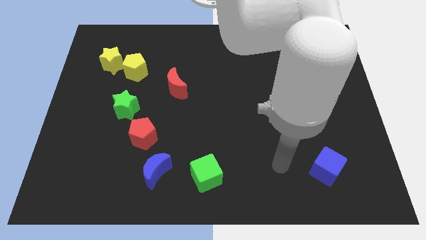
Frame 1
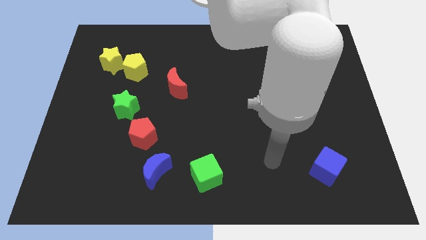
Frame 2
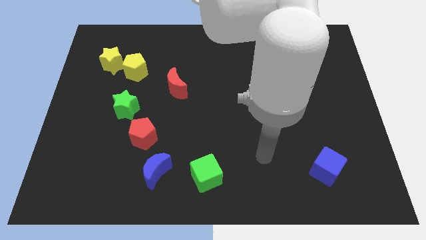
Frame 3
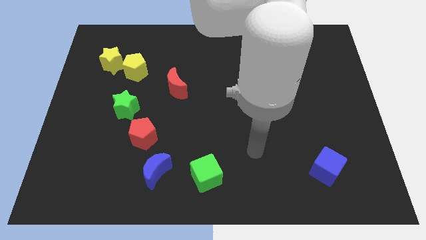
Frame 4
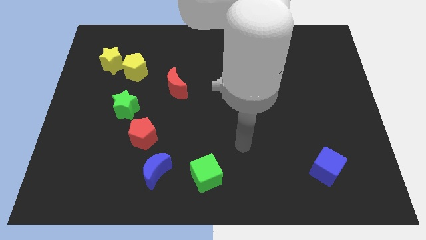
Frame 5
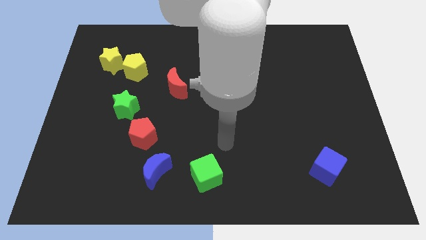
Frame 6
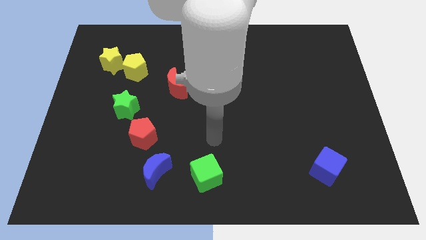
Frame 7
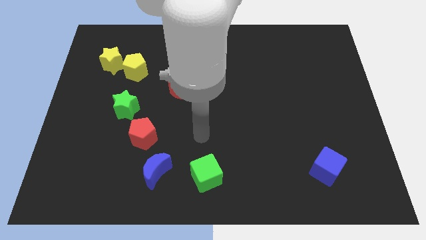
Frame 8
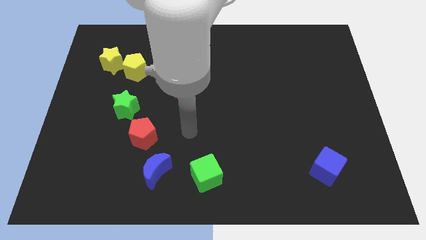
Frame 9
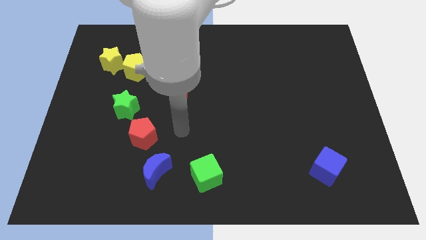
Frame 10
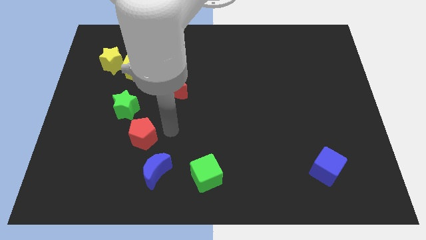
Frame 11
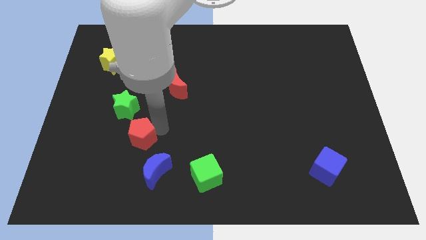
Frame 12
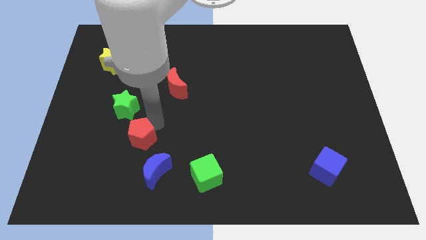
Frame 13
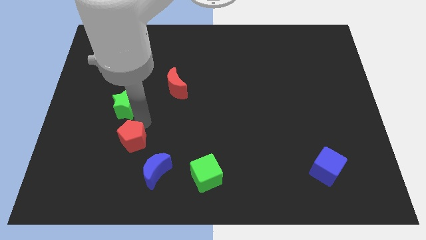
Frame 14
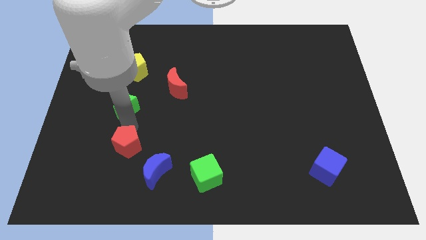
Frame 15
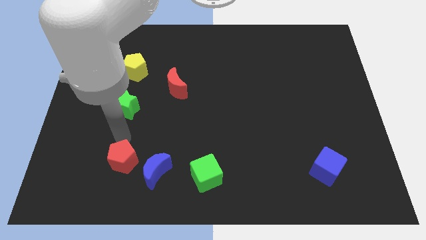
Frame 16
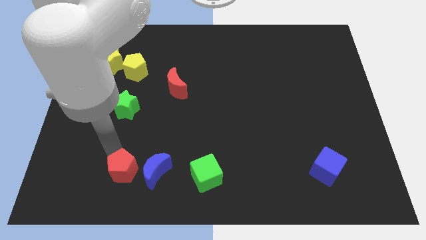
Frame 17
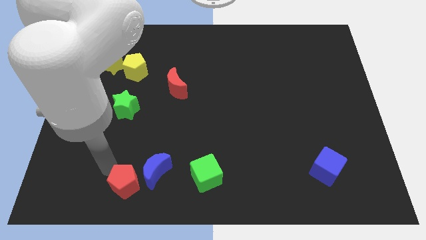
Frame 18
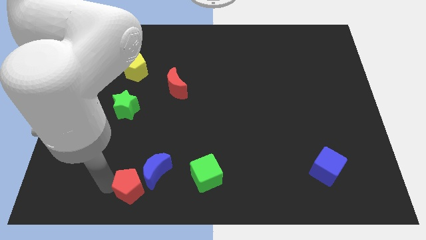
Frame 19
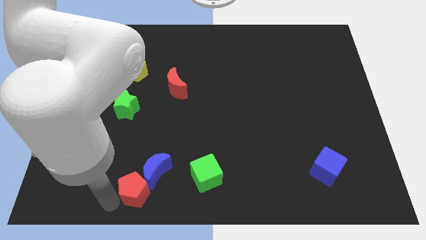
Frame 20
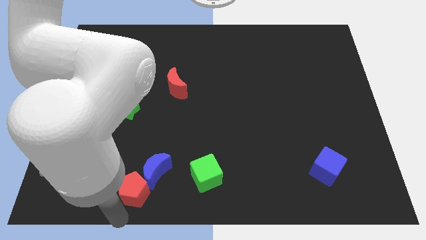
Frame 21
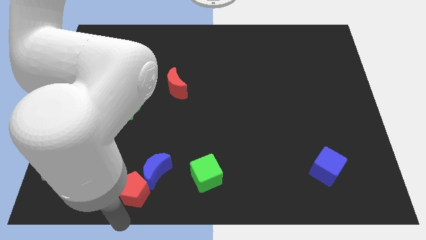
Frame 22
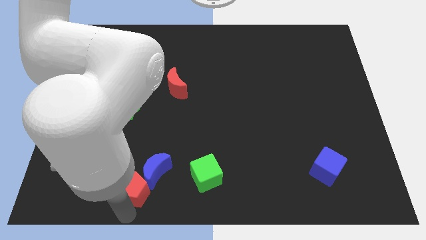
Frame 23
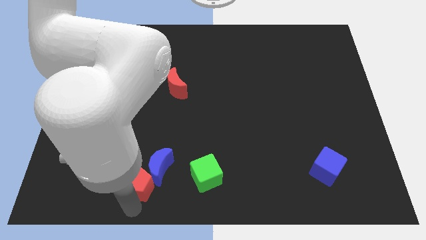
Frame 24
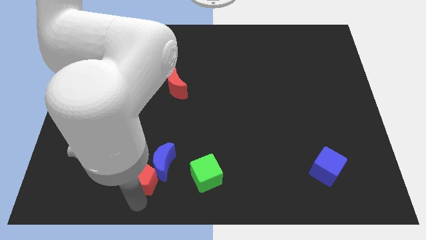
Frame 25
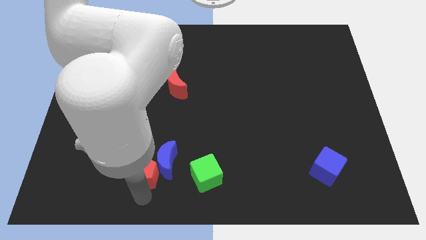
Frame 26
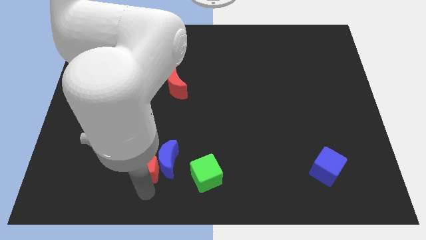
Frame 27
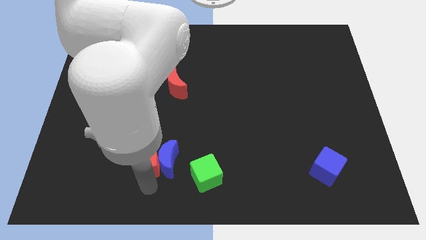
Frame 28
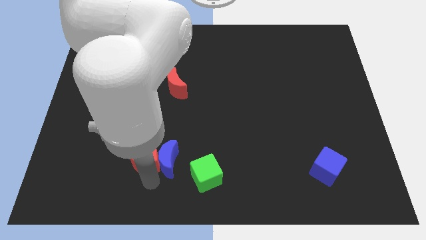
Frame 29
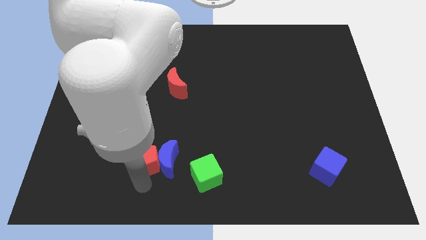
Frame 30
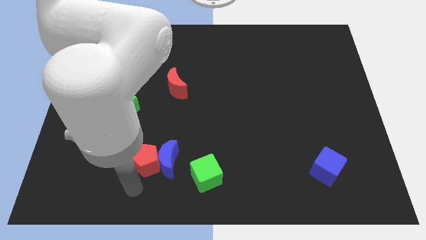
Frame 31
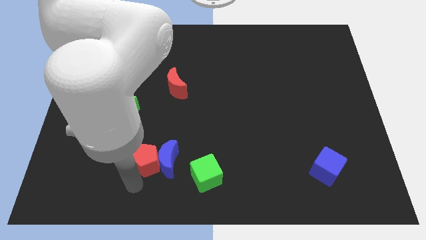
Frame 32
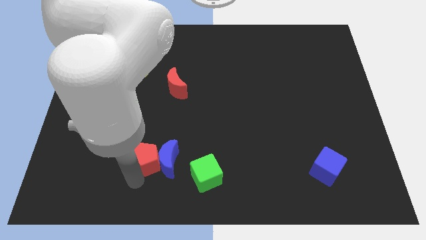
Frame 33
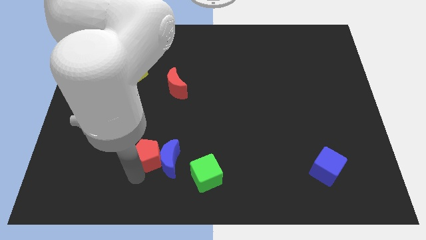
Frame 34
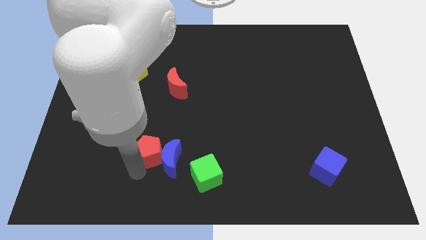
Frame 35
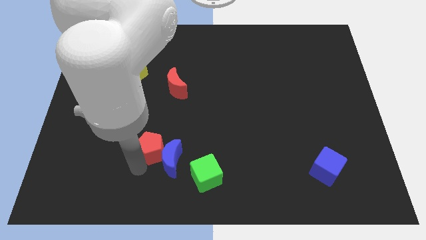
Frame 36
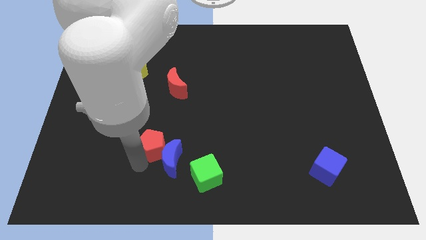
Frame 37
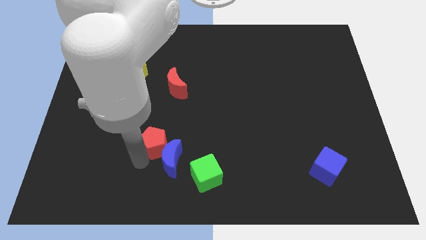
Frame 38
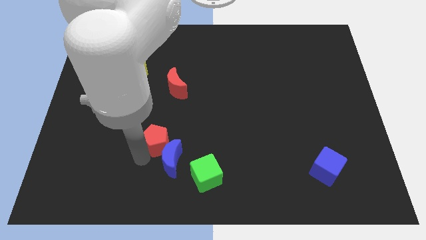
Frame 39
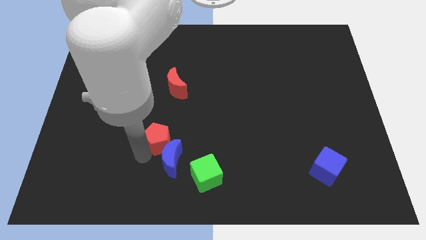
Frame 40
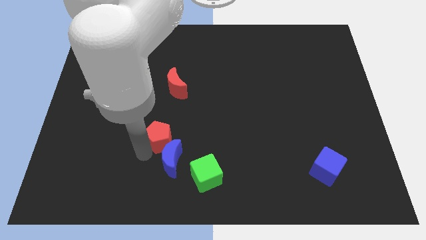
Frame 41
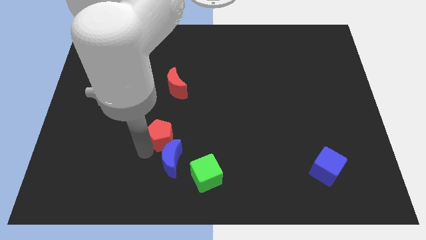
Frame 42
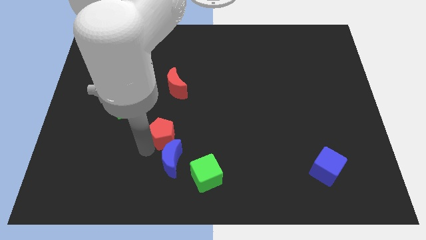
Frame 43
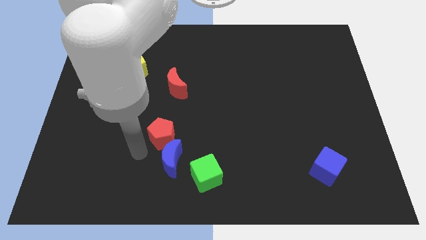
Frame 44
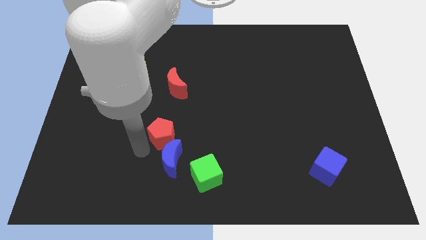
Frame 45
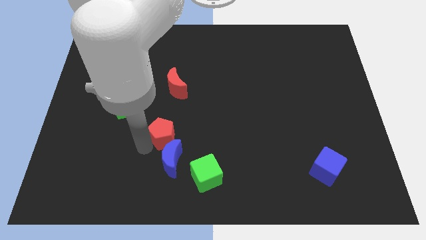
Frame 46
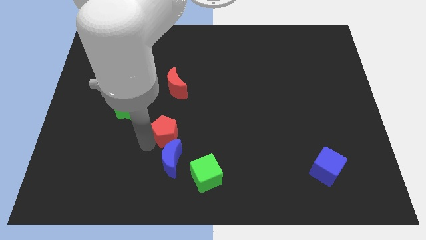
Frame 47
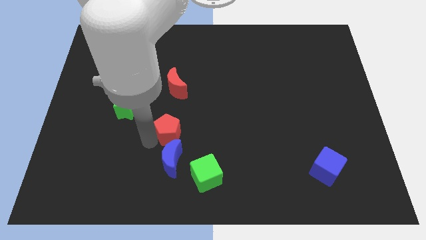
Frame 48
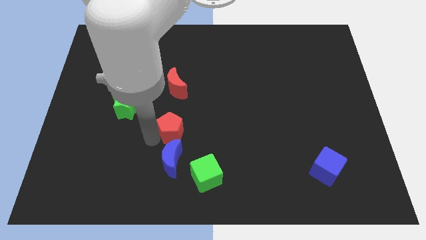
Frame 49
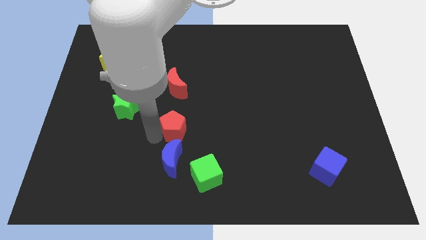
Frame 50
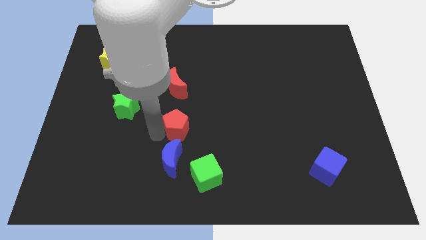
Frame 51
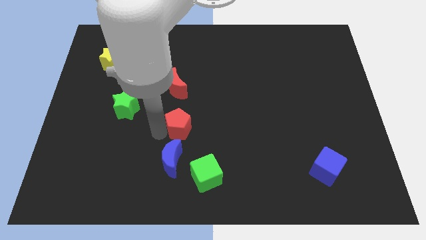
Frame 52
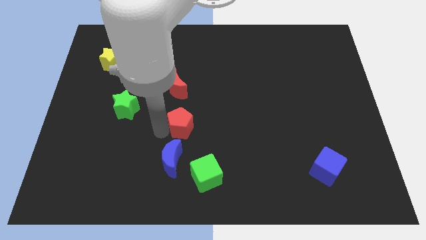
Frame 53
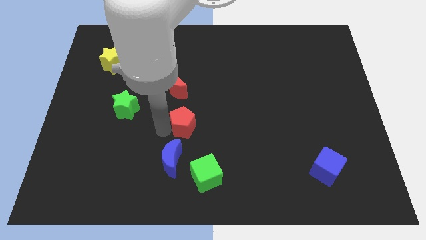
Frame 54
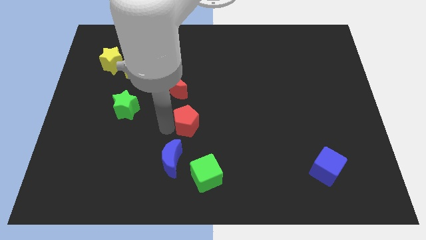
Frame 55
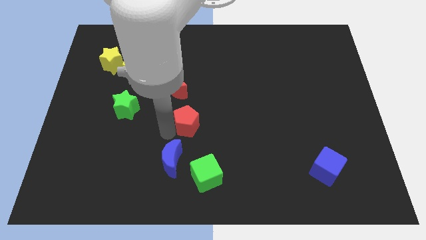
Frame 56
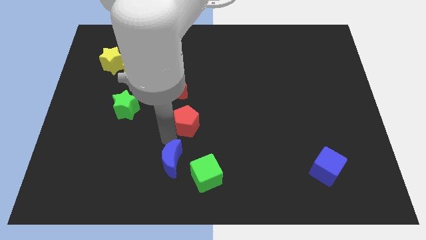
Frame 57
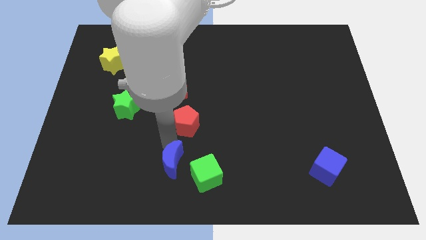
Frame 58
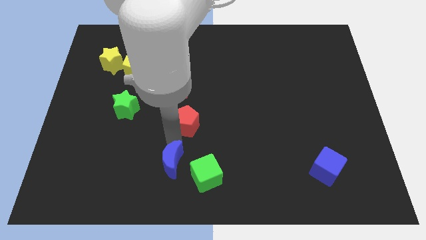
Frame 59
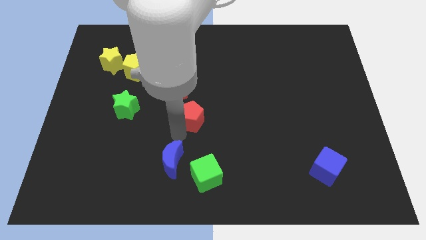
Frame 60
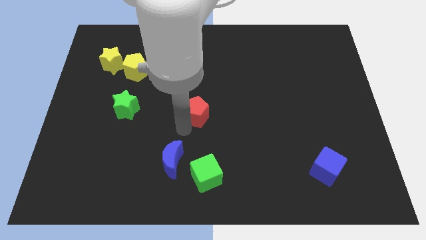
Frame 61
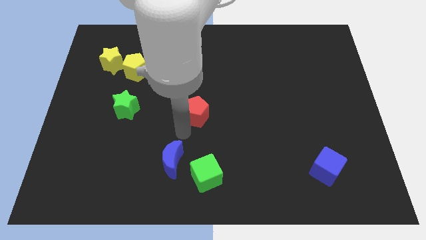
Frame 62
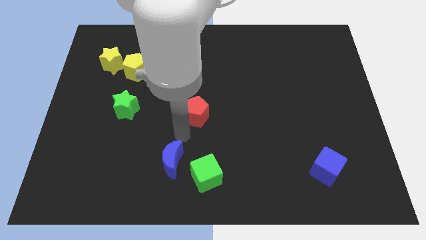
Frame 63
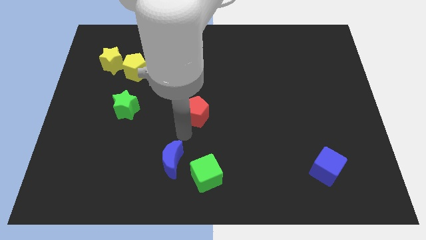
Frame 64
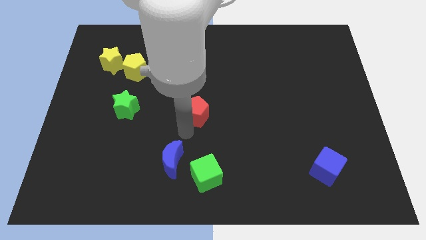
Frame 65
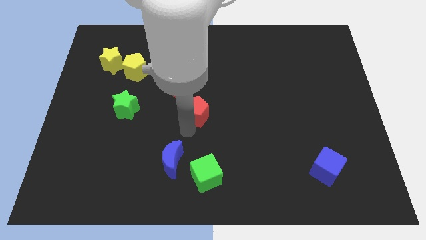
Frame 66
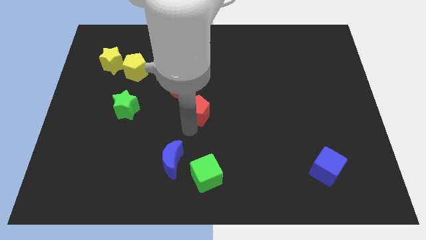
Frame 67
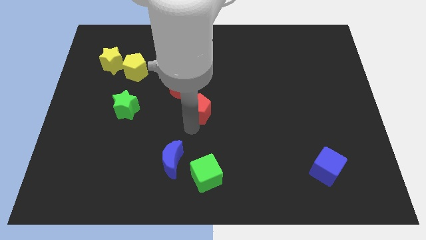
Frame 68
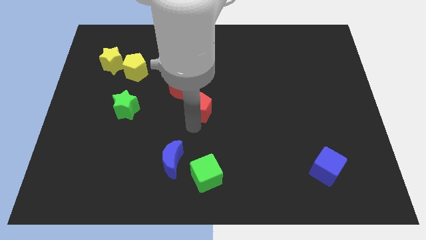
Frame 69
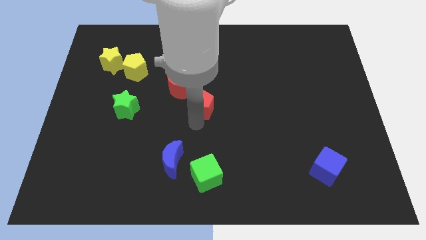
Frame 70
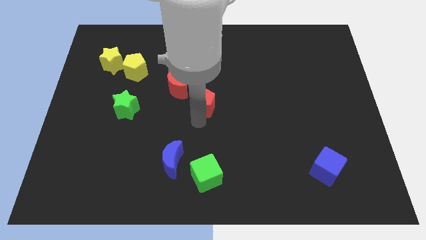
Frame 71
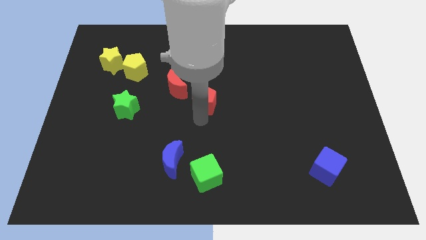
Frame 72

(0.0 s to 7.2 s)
push the red pentagon just right of the red moon
